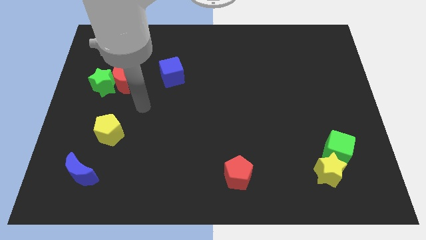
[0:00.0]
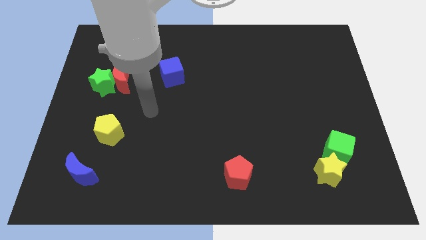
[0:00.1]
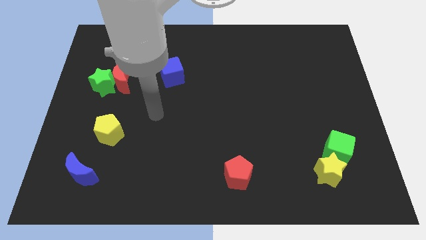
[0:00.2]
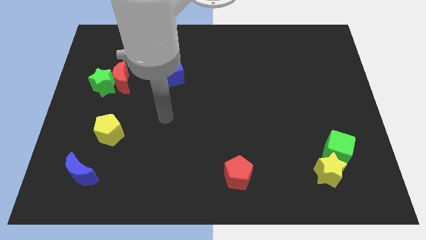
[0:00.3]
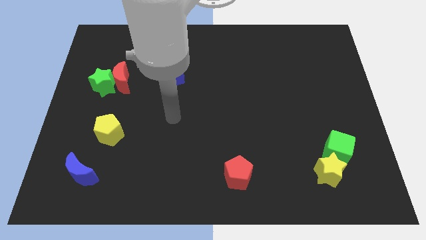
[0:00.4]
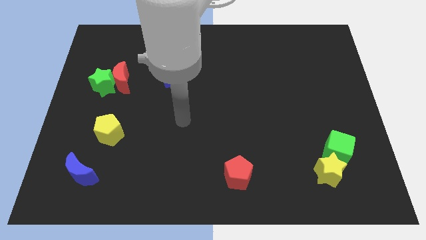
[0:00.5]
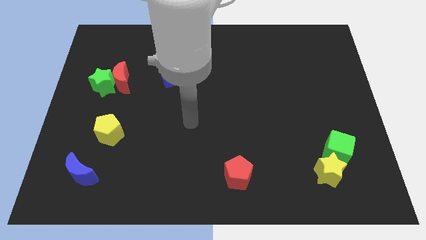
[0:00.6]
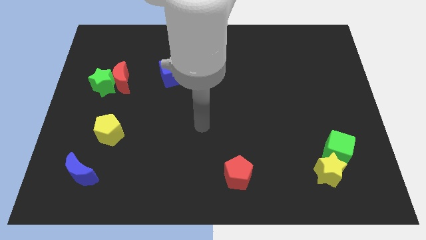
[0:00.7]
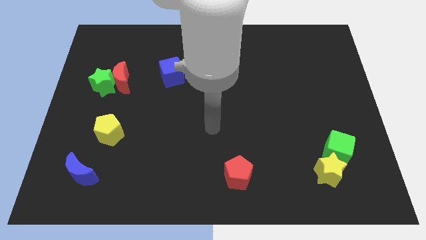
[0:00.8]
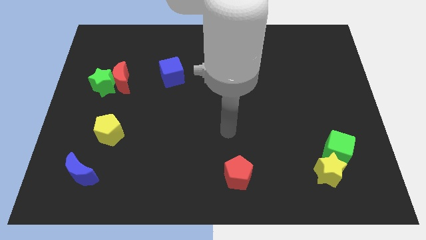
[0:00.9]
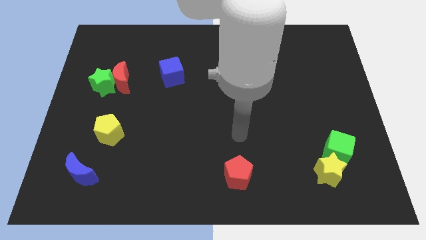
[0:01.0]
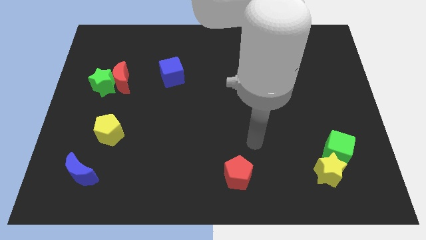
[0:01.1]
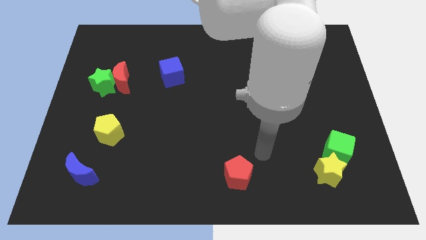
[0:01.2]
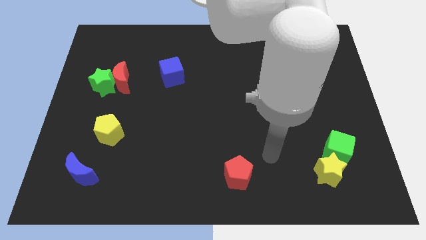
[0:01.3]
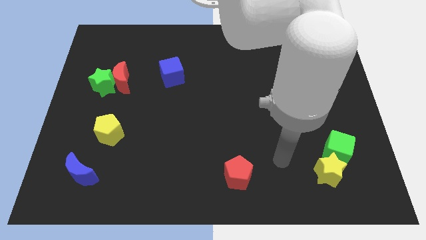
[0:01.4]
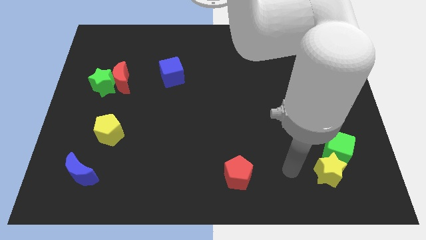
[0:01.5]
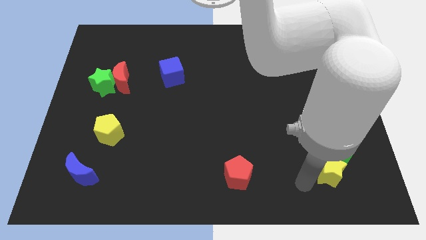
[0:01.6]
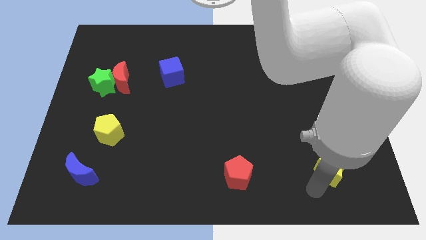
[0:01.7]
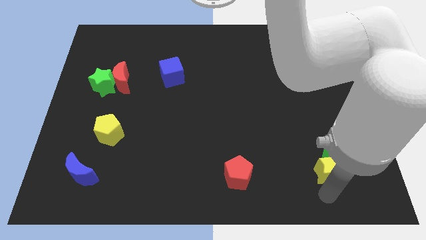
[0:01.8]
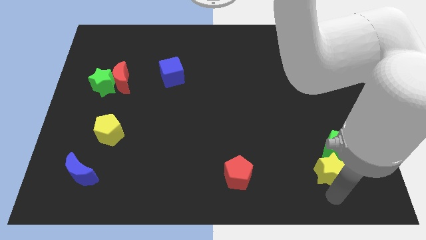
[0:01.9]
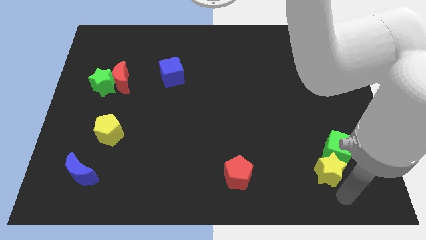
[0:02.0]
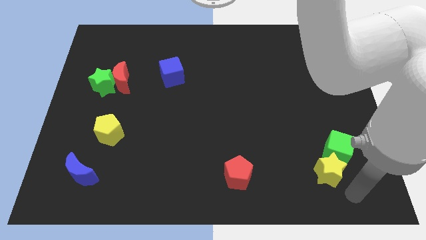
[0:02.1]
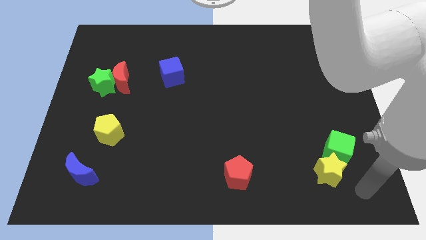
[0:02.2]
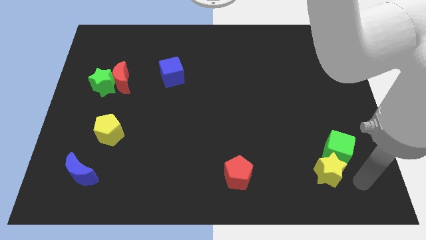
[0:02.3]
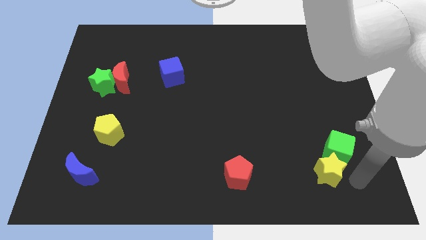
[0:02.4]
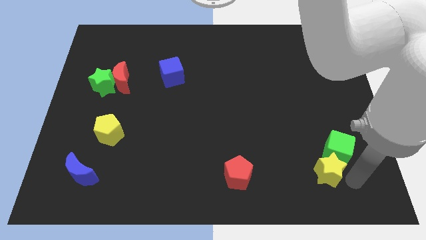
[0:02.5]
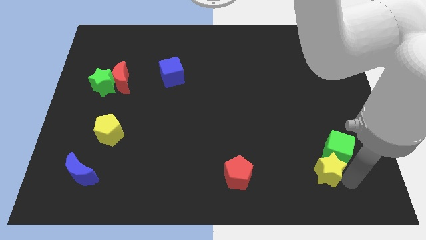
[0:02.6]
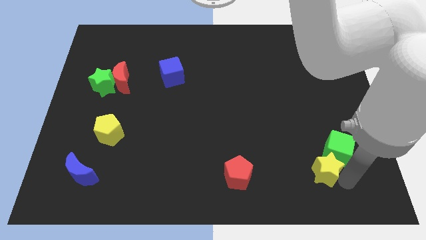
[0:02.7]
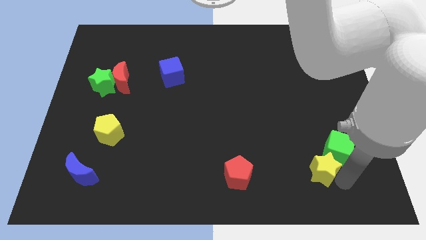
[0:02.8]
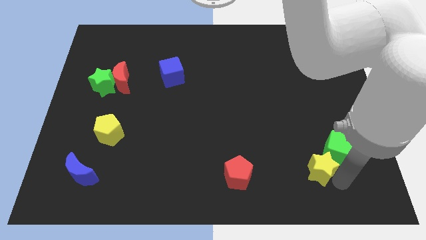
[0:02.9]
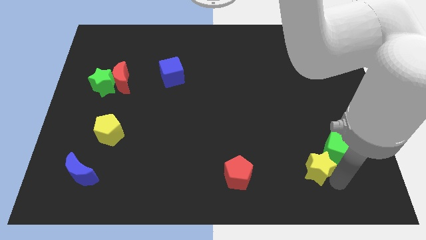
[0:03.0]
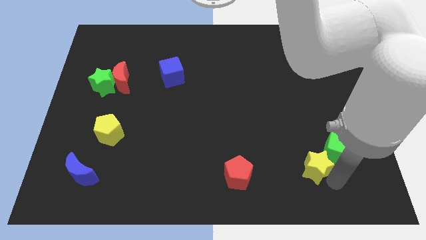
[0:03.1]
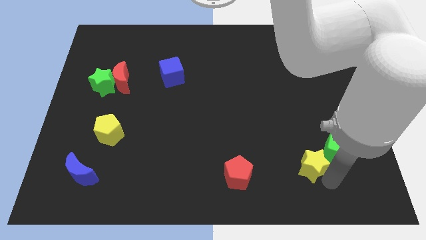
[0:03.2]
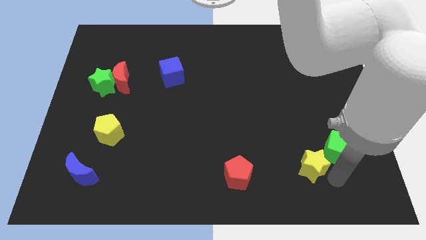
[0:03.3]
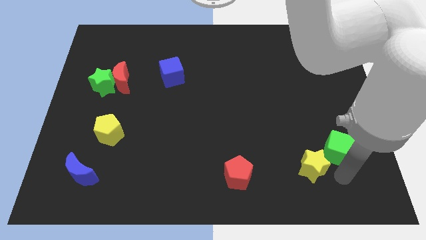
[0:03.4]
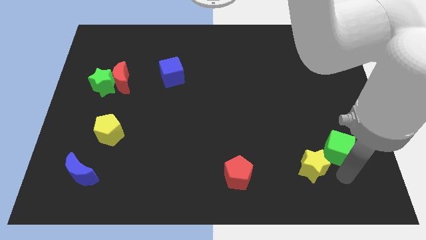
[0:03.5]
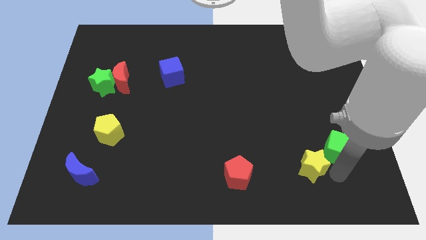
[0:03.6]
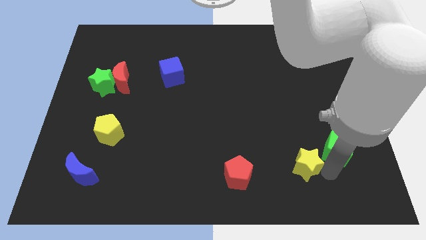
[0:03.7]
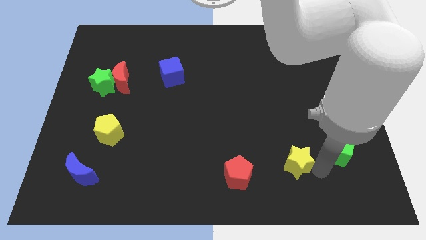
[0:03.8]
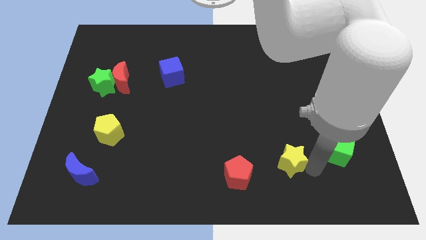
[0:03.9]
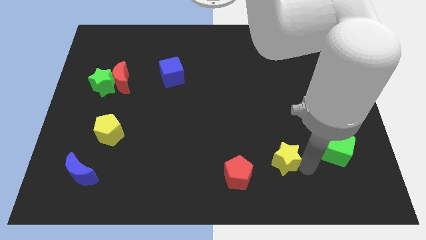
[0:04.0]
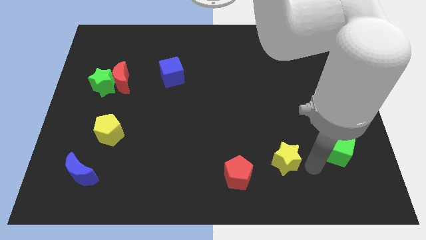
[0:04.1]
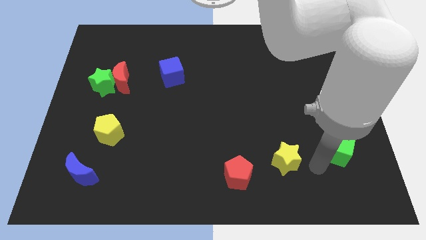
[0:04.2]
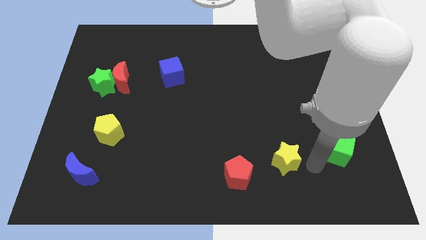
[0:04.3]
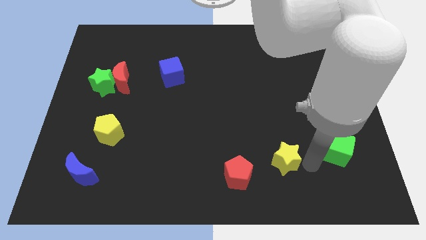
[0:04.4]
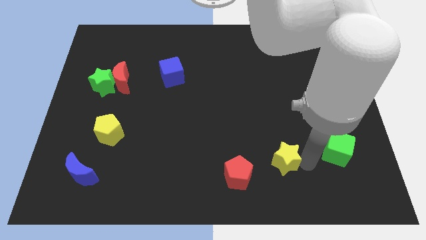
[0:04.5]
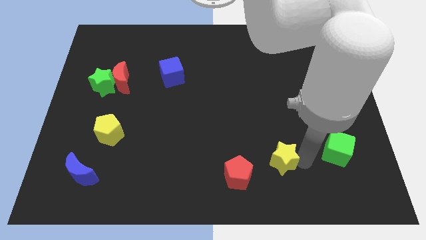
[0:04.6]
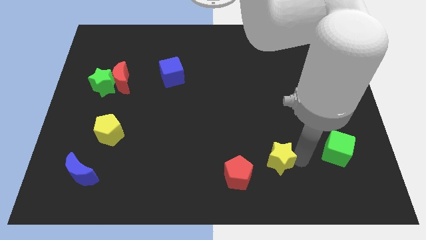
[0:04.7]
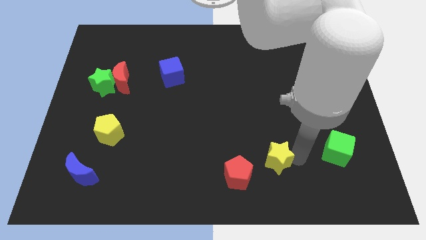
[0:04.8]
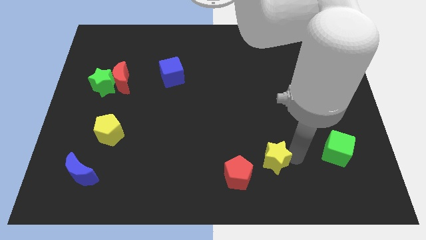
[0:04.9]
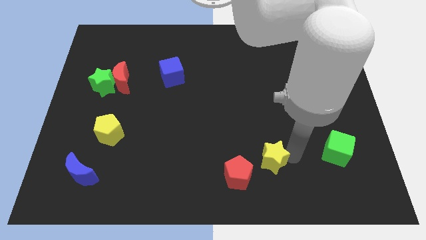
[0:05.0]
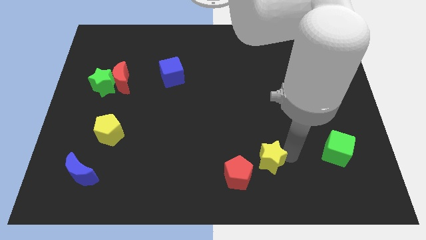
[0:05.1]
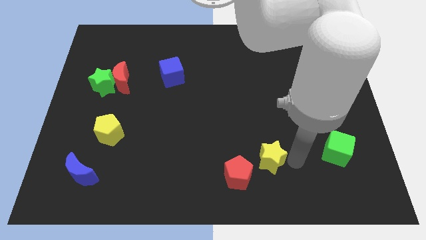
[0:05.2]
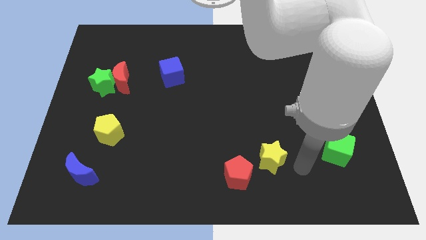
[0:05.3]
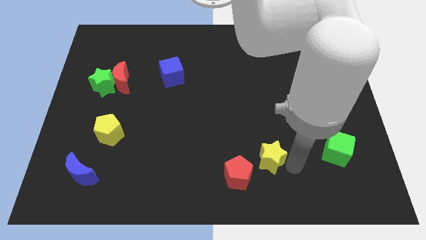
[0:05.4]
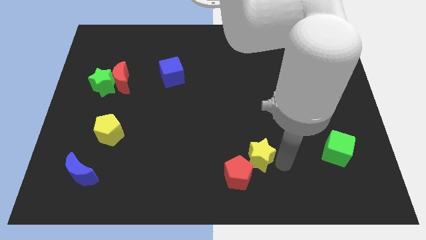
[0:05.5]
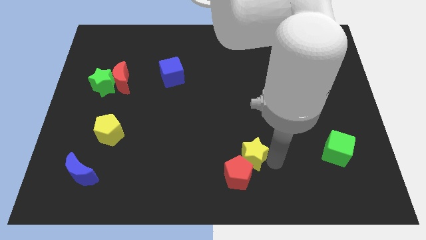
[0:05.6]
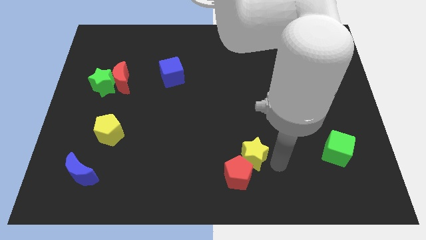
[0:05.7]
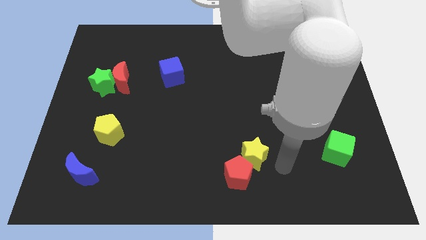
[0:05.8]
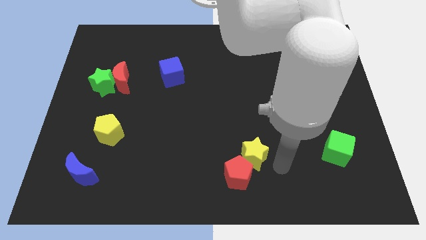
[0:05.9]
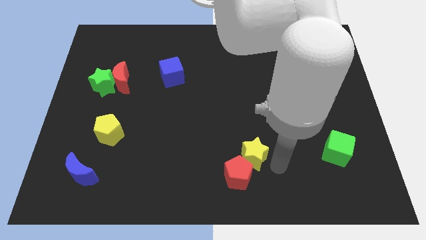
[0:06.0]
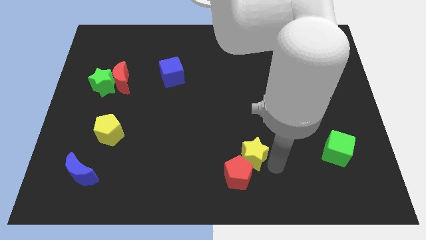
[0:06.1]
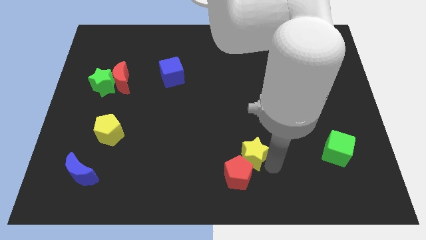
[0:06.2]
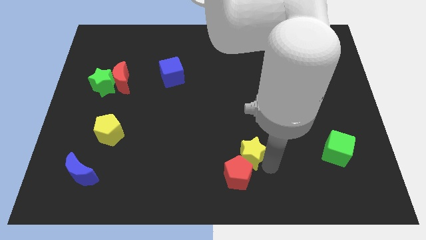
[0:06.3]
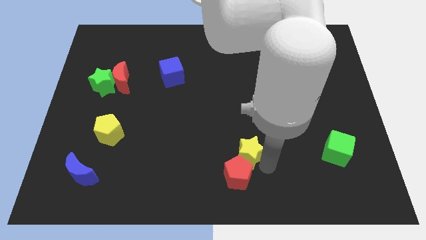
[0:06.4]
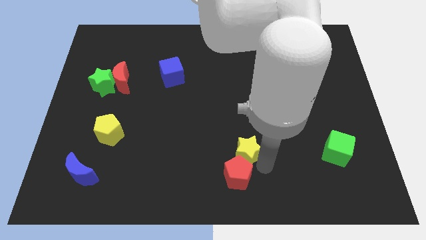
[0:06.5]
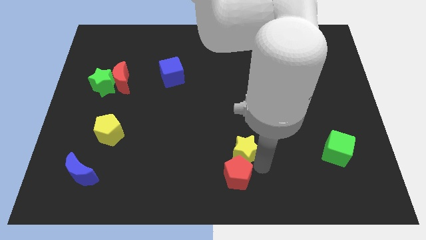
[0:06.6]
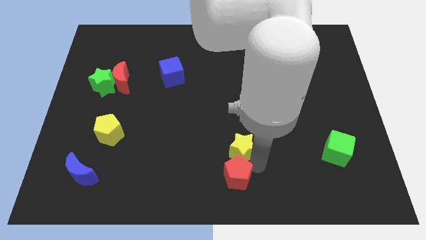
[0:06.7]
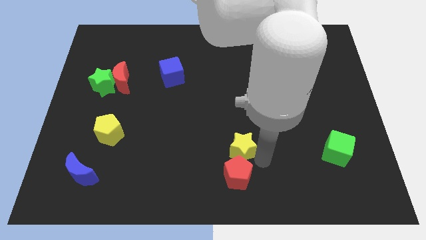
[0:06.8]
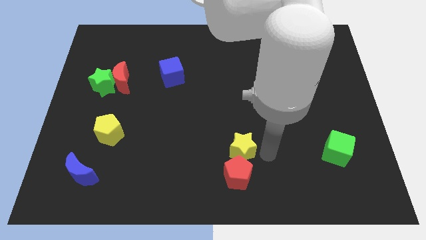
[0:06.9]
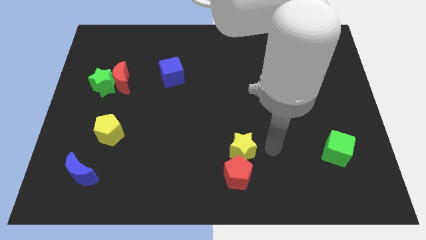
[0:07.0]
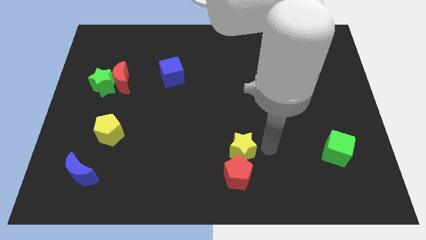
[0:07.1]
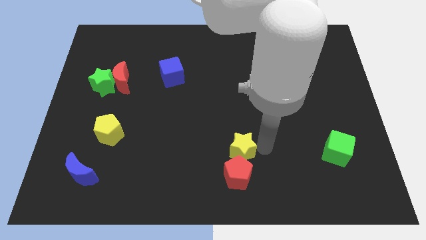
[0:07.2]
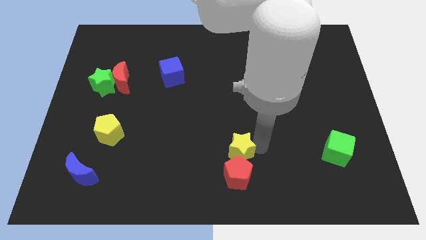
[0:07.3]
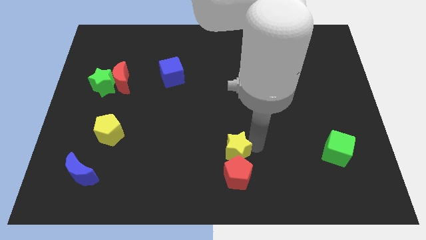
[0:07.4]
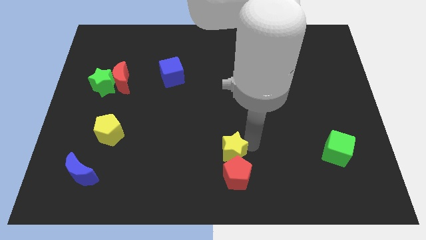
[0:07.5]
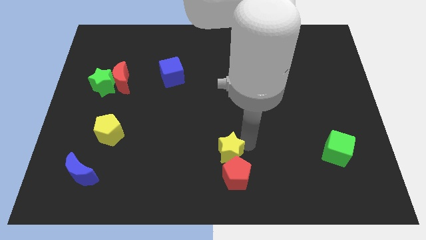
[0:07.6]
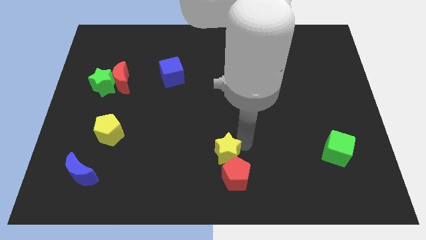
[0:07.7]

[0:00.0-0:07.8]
move the yellow star left

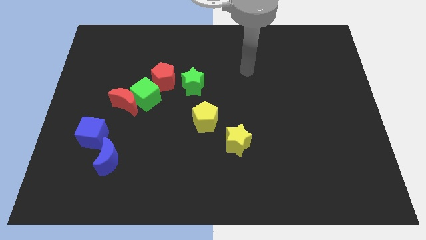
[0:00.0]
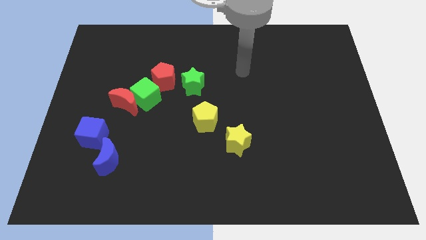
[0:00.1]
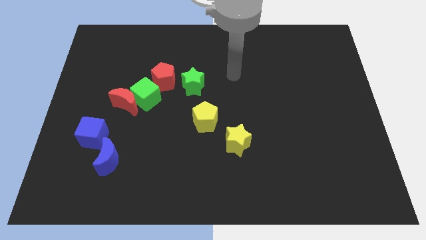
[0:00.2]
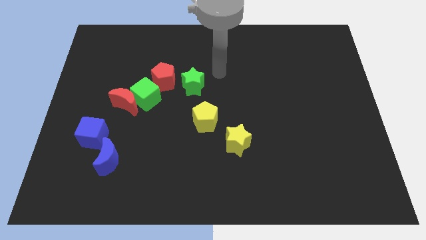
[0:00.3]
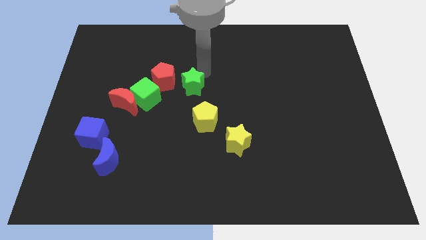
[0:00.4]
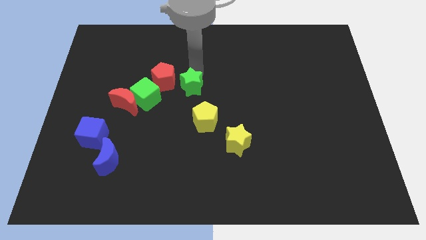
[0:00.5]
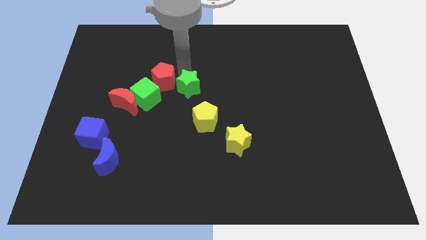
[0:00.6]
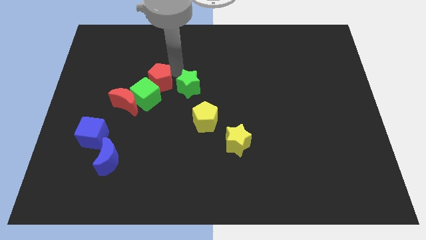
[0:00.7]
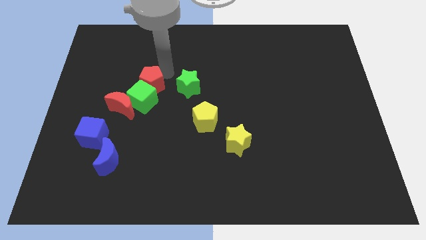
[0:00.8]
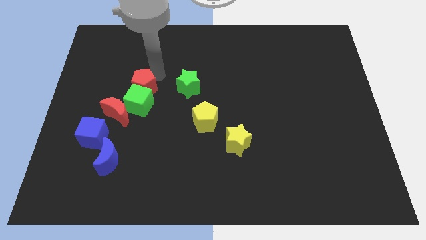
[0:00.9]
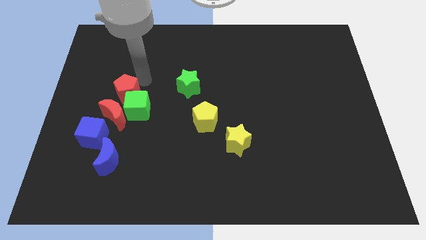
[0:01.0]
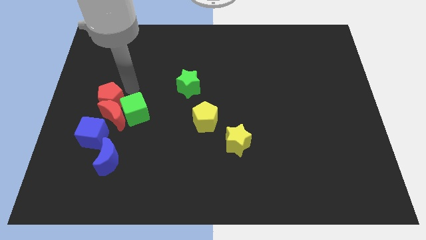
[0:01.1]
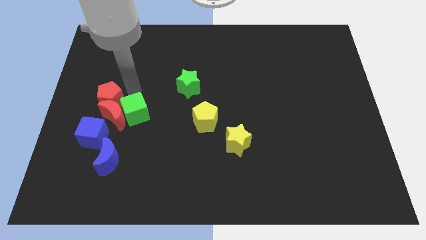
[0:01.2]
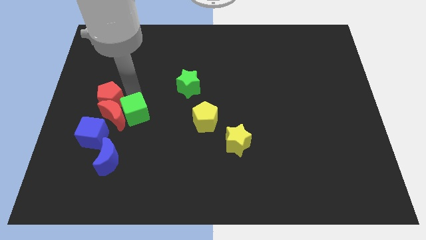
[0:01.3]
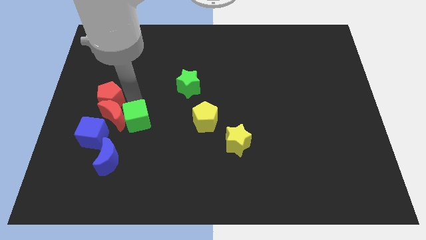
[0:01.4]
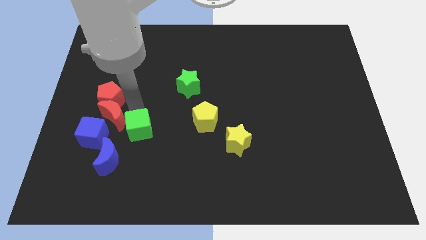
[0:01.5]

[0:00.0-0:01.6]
slide the green cube down somewhat
